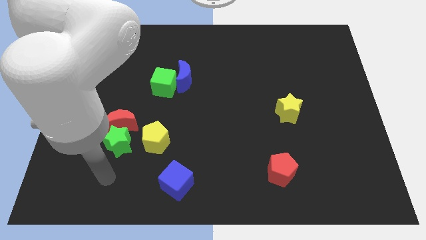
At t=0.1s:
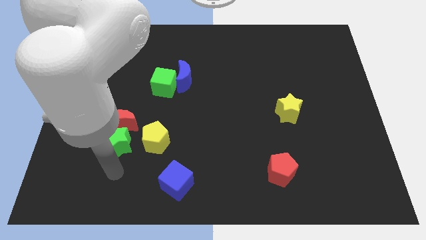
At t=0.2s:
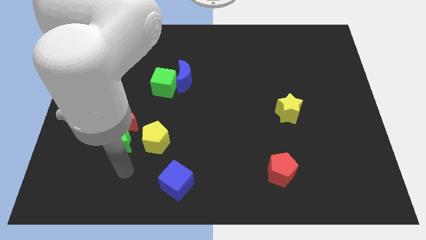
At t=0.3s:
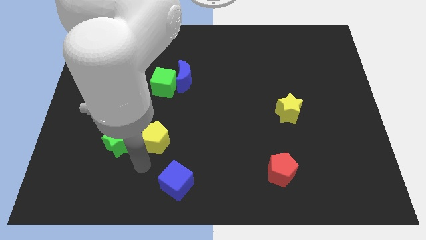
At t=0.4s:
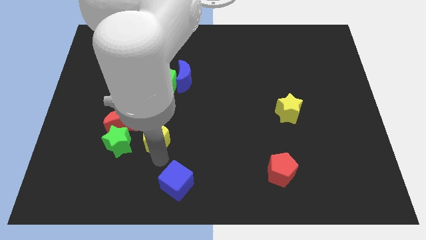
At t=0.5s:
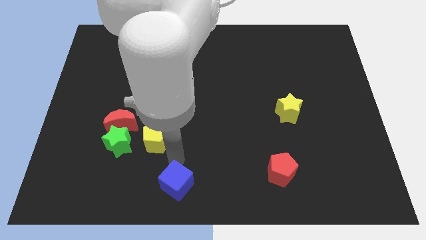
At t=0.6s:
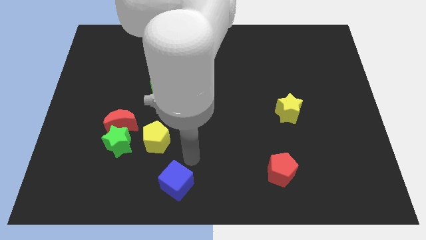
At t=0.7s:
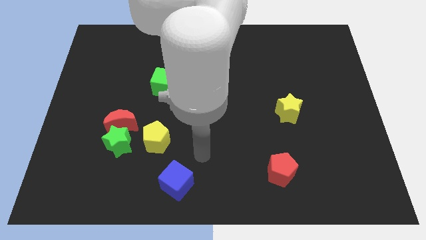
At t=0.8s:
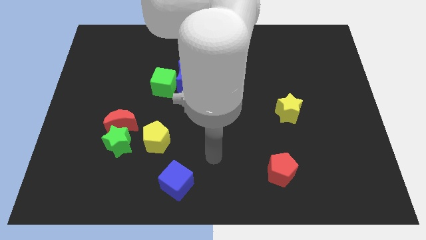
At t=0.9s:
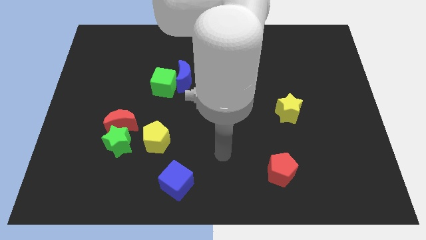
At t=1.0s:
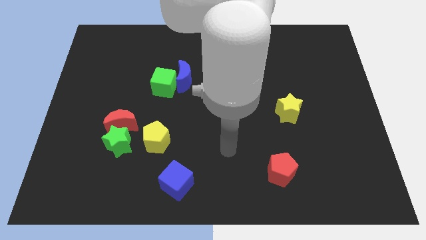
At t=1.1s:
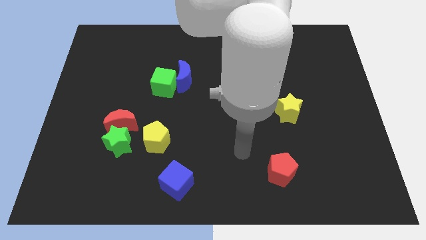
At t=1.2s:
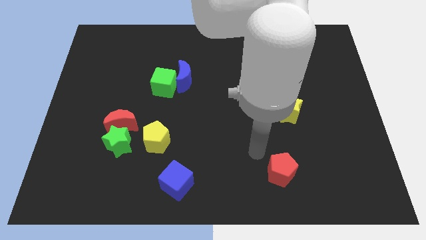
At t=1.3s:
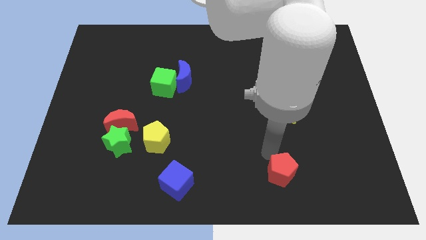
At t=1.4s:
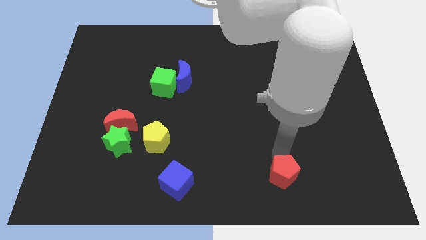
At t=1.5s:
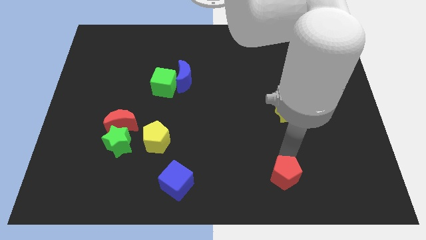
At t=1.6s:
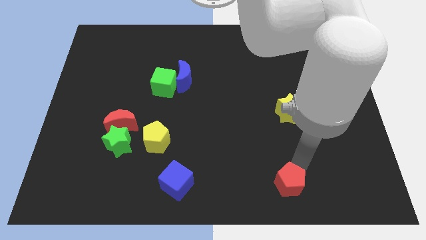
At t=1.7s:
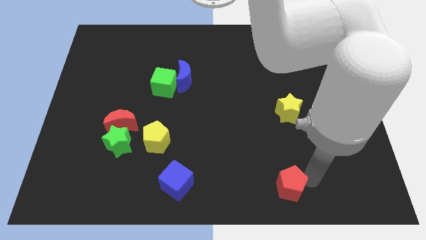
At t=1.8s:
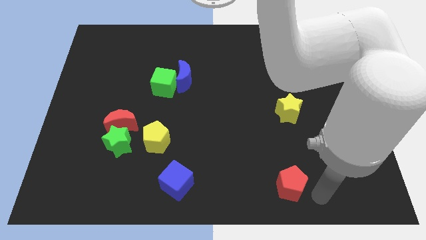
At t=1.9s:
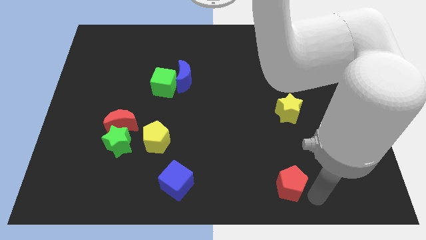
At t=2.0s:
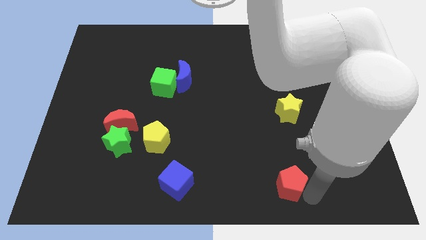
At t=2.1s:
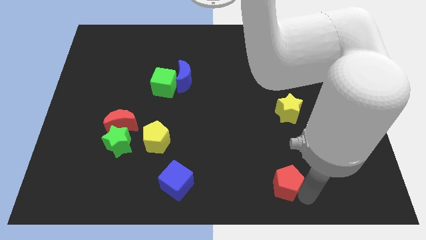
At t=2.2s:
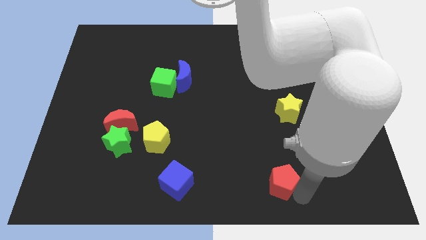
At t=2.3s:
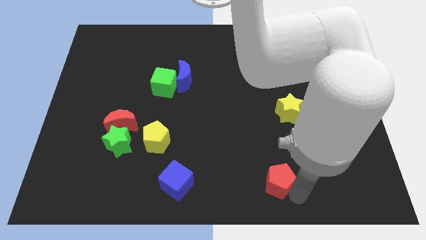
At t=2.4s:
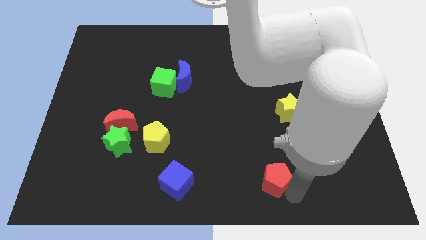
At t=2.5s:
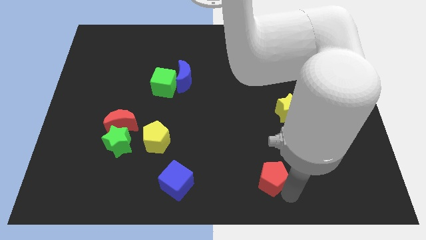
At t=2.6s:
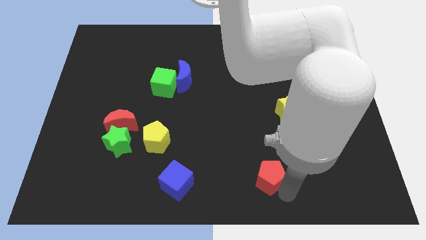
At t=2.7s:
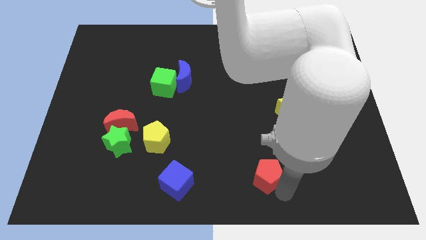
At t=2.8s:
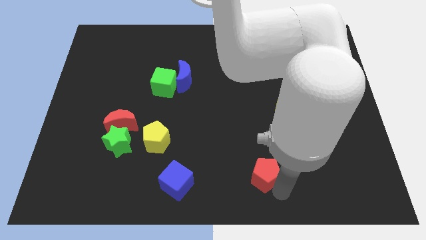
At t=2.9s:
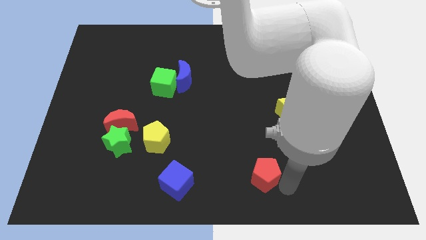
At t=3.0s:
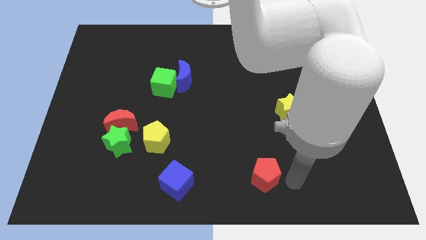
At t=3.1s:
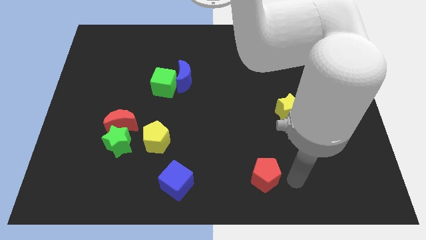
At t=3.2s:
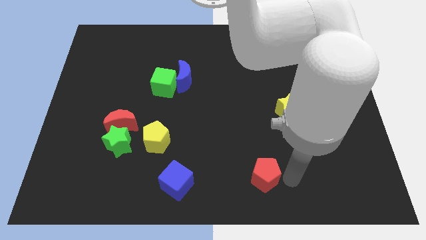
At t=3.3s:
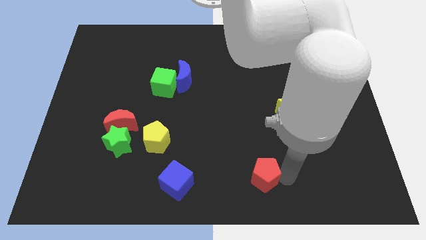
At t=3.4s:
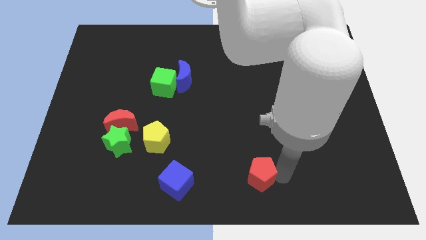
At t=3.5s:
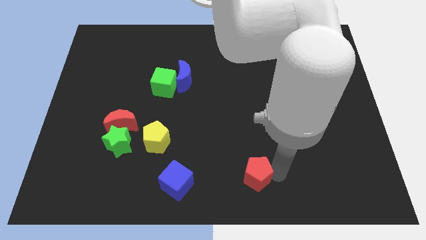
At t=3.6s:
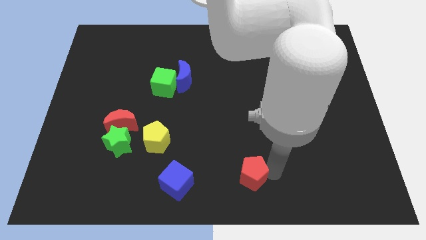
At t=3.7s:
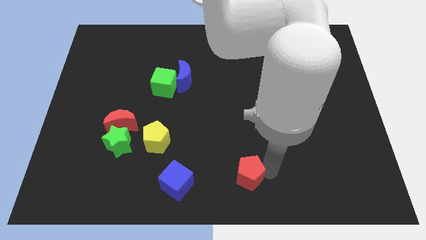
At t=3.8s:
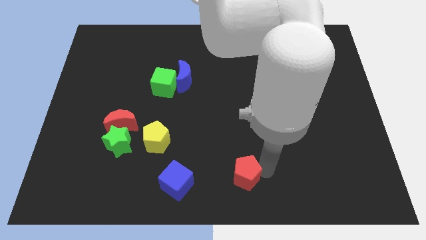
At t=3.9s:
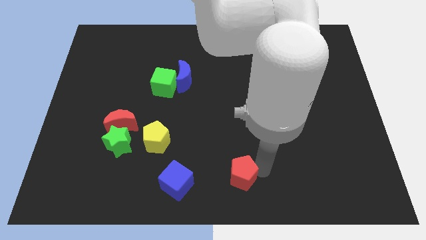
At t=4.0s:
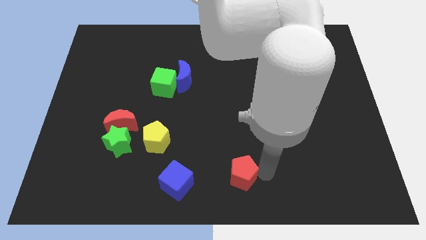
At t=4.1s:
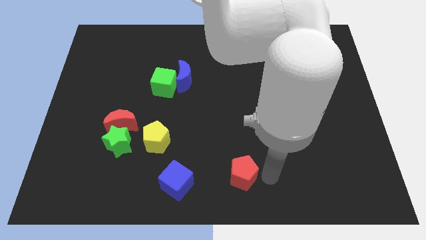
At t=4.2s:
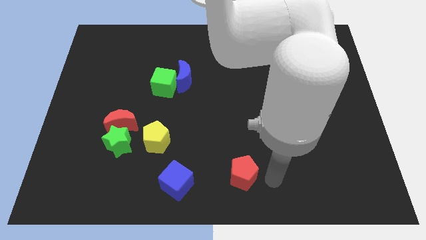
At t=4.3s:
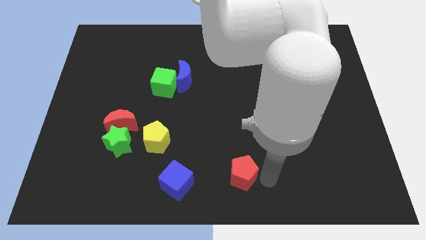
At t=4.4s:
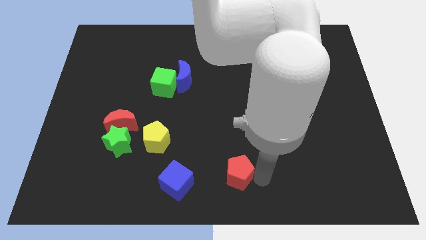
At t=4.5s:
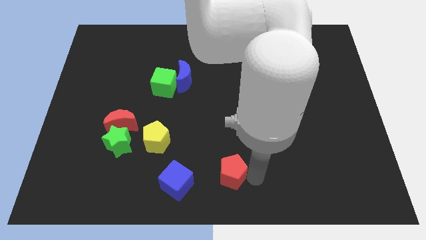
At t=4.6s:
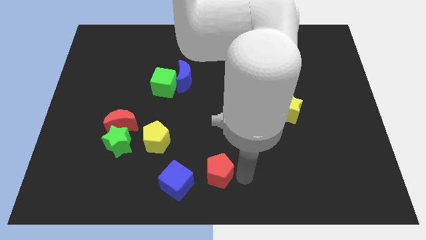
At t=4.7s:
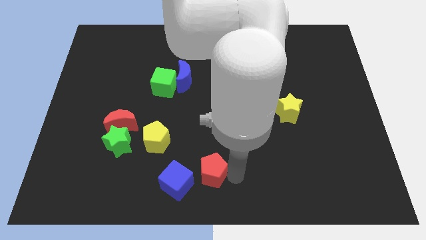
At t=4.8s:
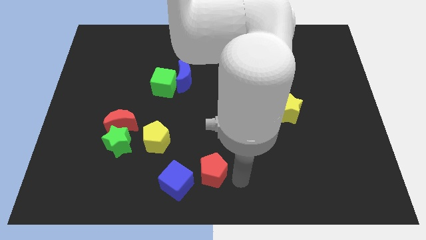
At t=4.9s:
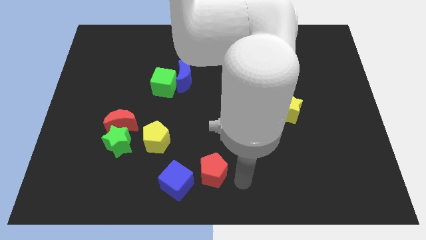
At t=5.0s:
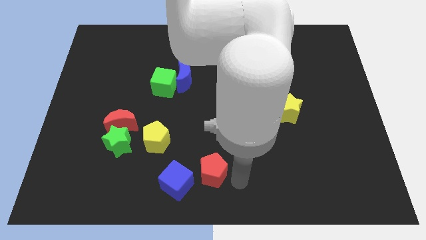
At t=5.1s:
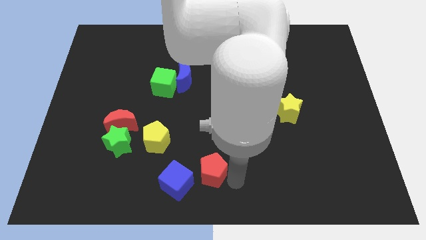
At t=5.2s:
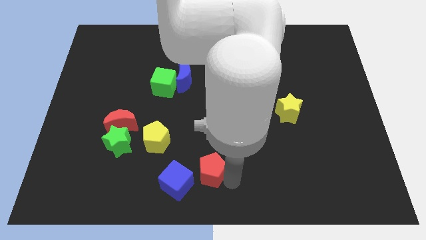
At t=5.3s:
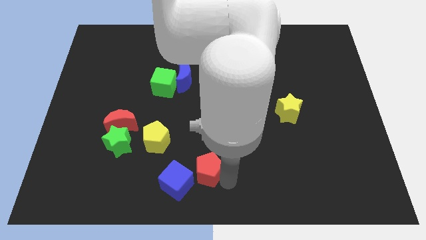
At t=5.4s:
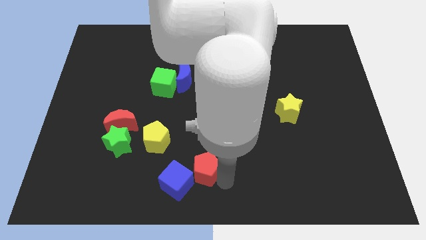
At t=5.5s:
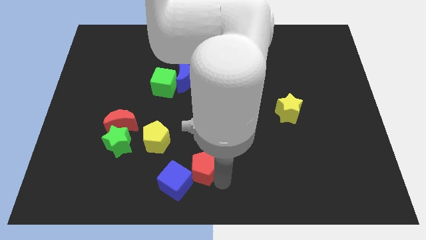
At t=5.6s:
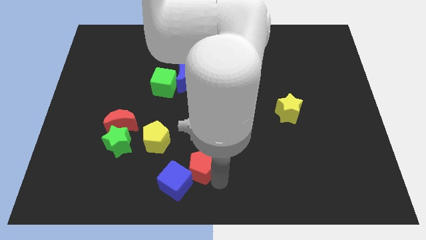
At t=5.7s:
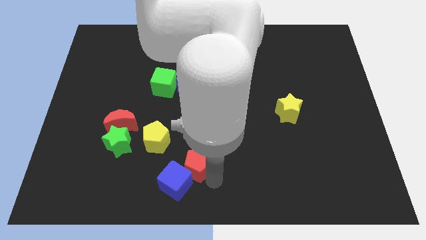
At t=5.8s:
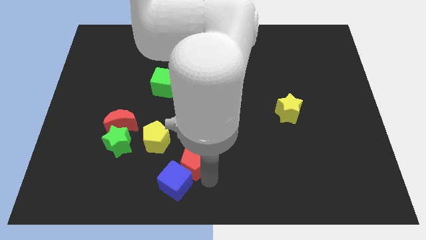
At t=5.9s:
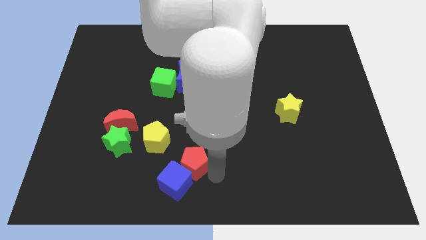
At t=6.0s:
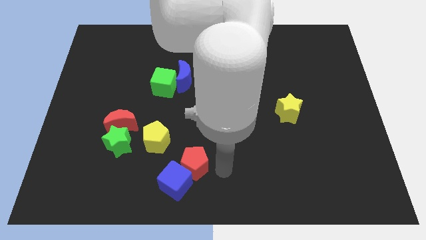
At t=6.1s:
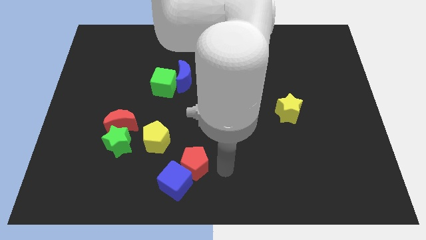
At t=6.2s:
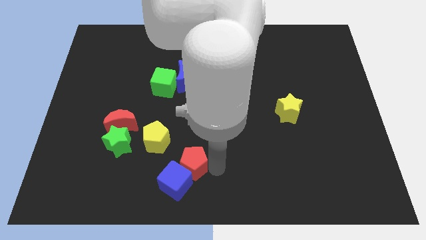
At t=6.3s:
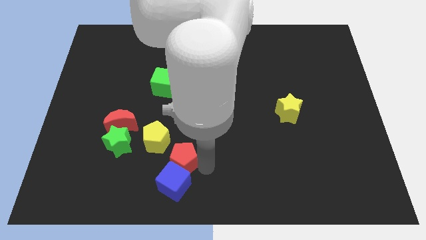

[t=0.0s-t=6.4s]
move the red pentagon to the top left side of the blue cube

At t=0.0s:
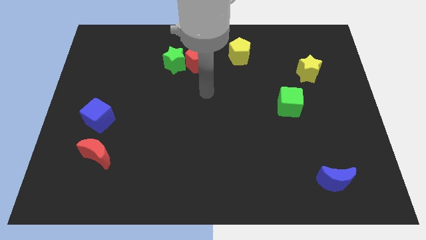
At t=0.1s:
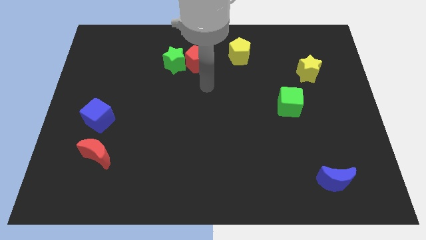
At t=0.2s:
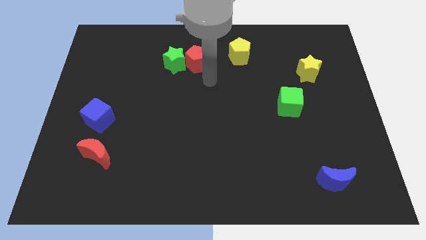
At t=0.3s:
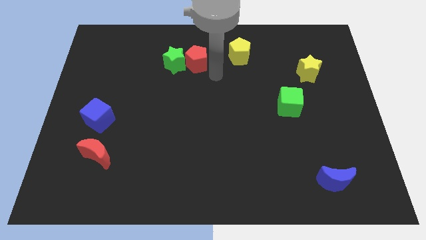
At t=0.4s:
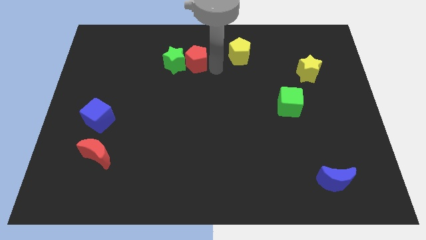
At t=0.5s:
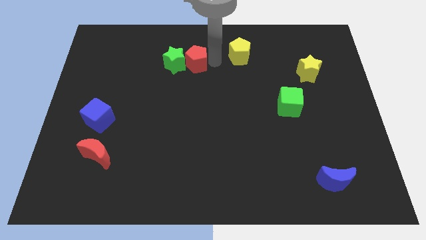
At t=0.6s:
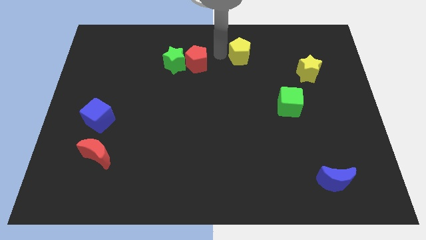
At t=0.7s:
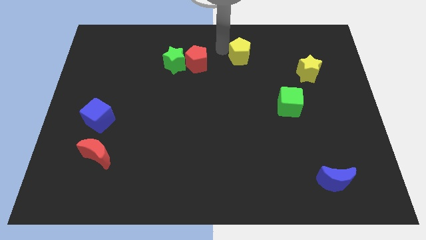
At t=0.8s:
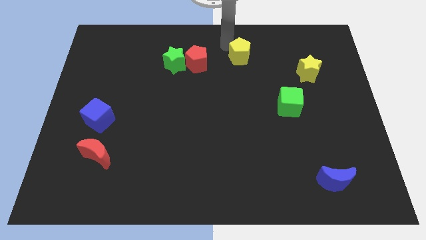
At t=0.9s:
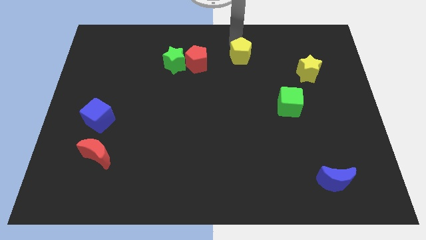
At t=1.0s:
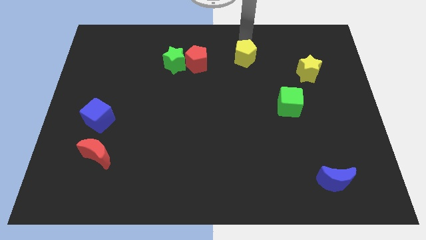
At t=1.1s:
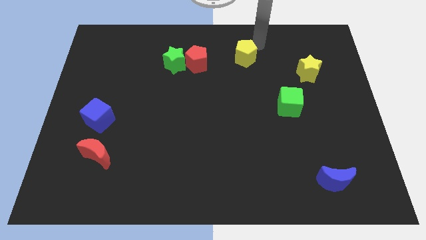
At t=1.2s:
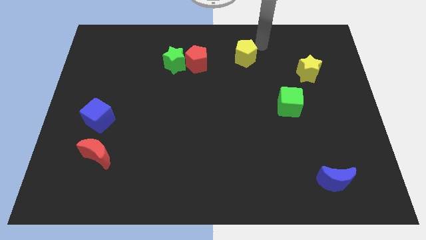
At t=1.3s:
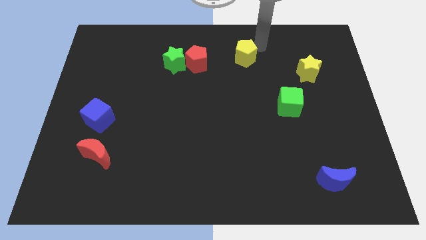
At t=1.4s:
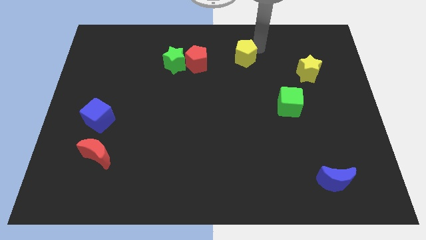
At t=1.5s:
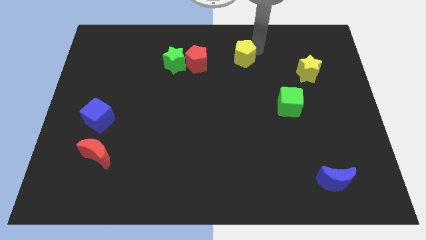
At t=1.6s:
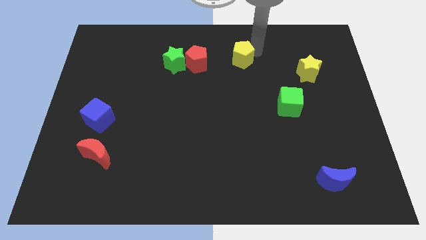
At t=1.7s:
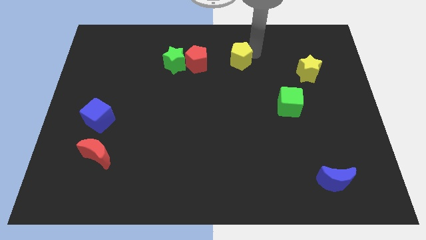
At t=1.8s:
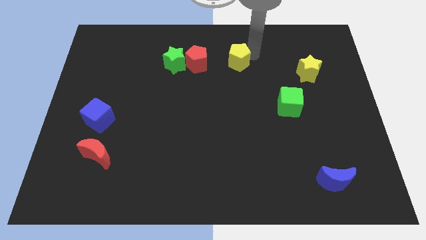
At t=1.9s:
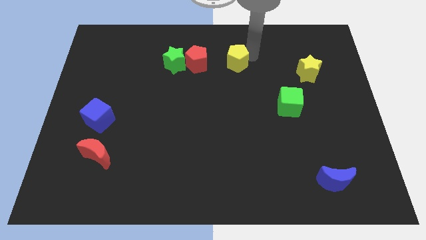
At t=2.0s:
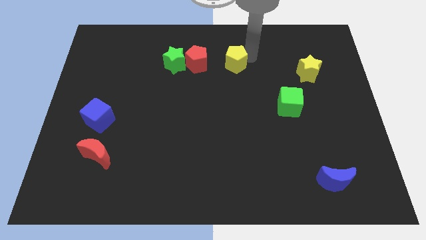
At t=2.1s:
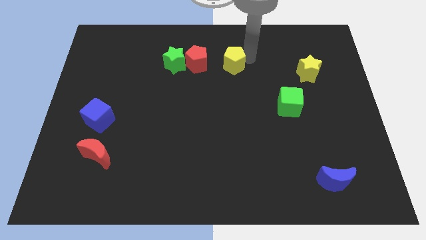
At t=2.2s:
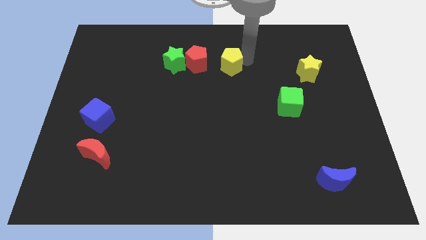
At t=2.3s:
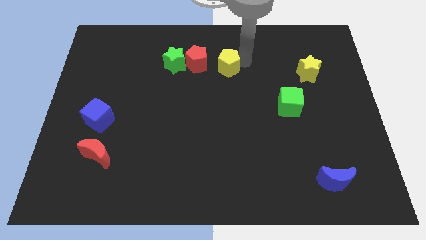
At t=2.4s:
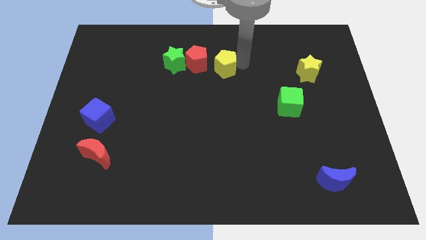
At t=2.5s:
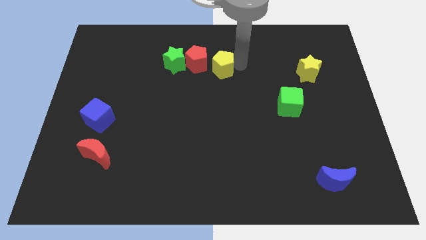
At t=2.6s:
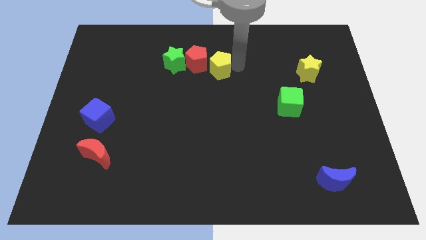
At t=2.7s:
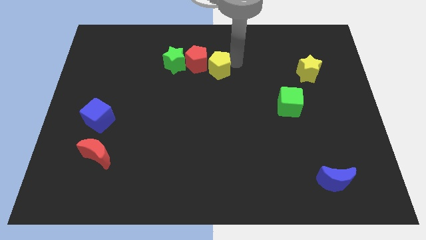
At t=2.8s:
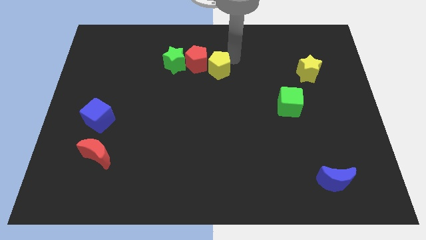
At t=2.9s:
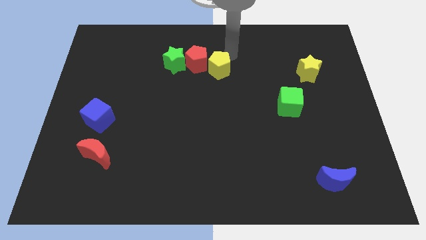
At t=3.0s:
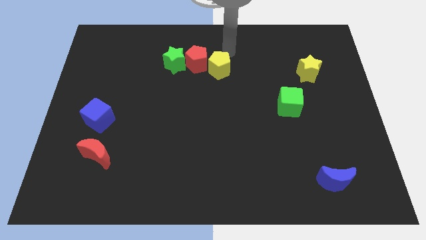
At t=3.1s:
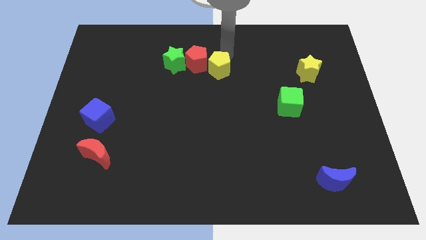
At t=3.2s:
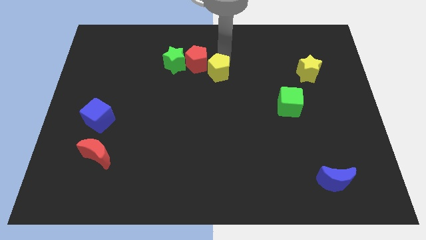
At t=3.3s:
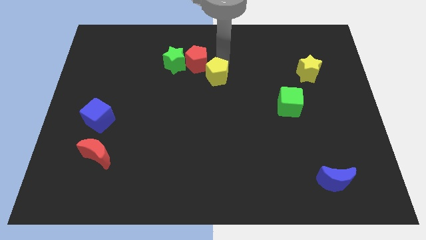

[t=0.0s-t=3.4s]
move the yellow pentagon below the red pentagon
